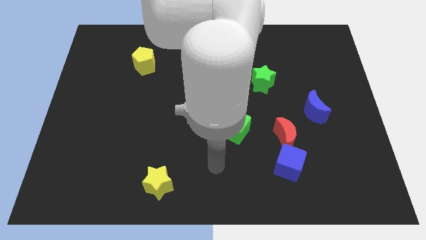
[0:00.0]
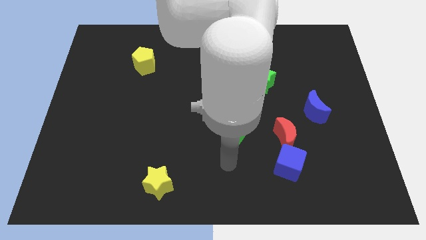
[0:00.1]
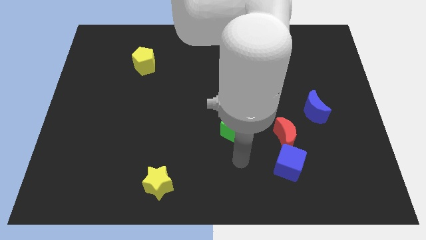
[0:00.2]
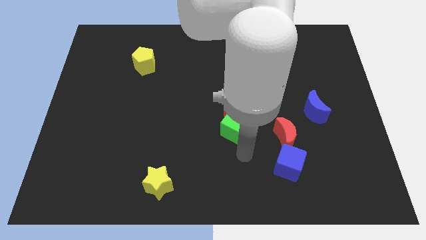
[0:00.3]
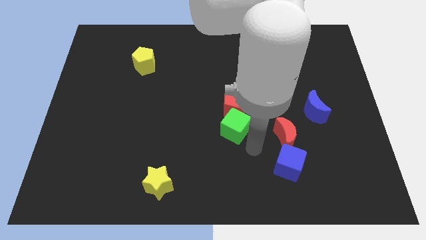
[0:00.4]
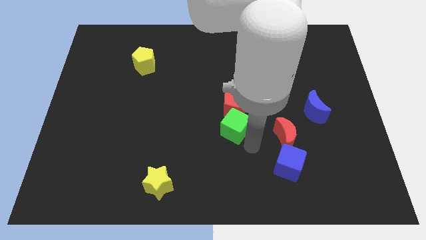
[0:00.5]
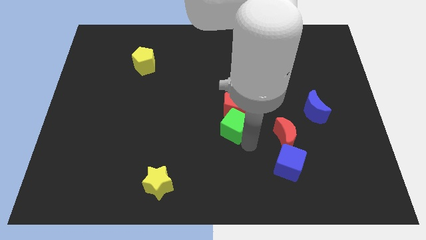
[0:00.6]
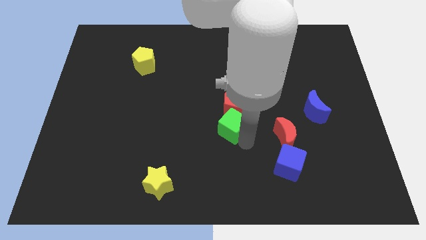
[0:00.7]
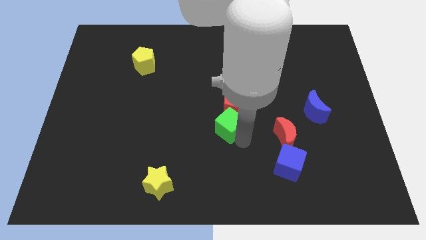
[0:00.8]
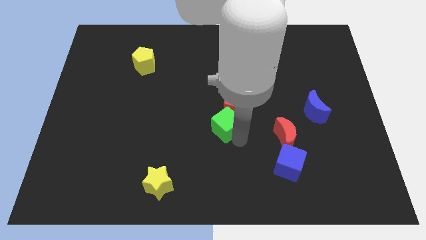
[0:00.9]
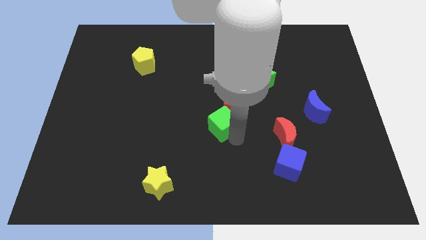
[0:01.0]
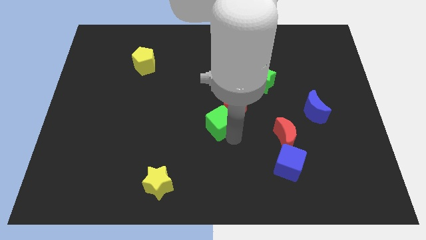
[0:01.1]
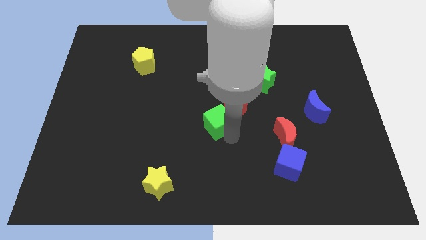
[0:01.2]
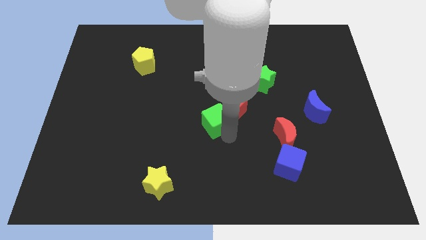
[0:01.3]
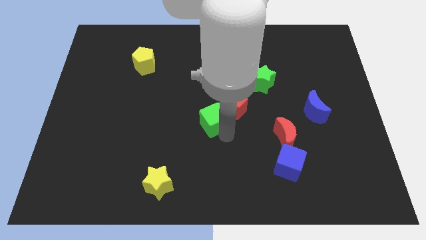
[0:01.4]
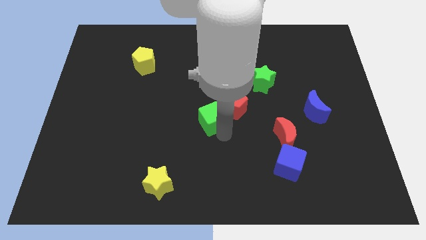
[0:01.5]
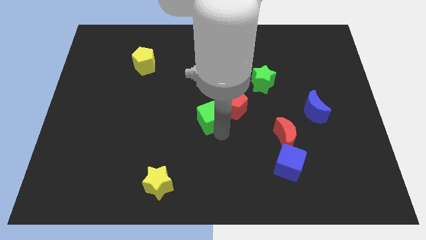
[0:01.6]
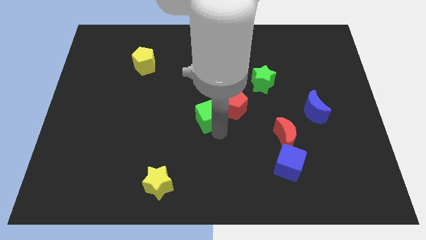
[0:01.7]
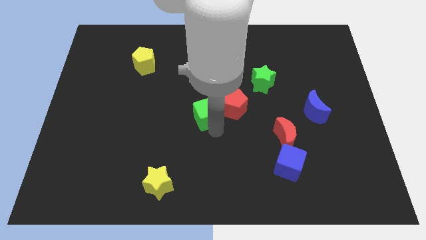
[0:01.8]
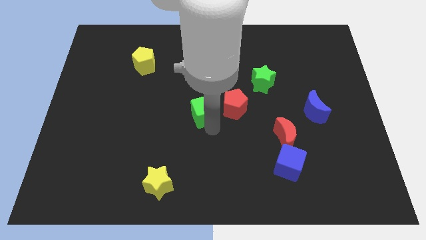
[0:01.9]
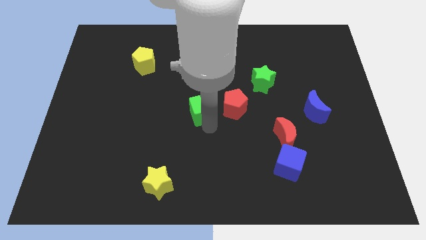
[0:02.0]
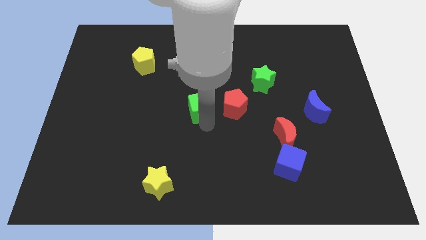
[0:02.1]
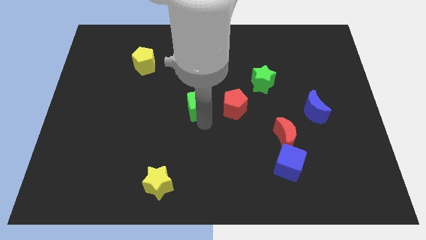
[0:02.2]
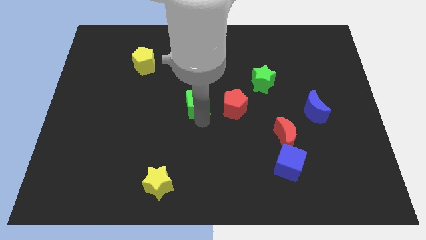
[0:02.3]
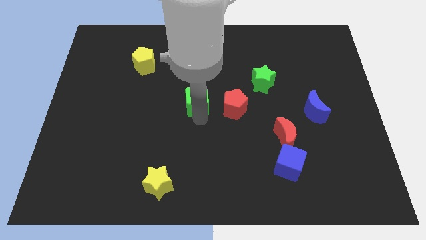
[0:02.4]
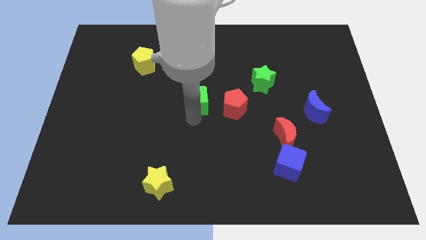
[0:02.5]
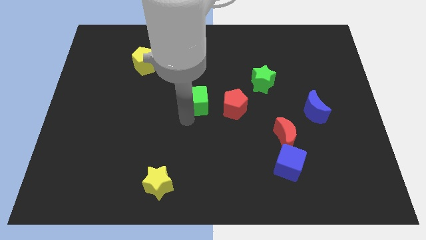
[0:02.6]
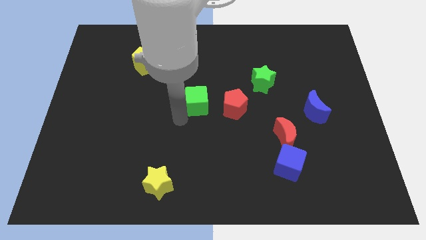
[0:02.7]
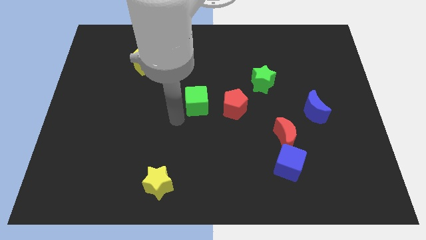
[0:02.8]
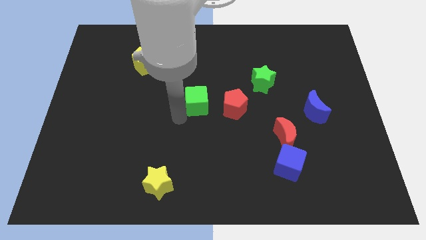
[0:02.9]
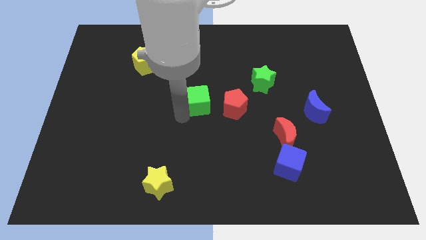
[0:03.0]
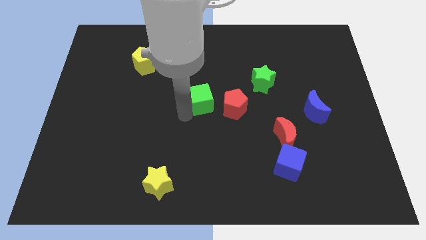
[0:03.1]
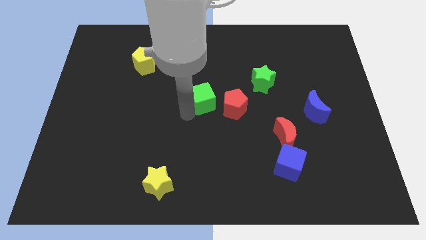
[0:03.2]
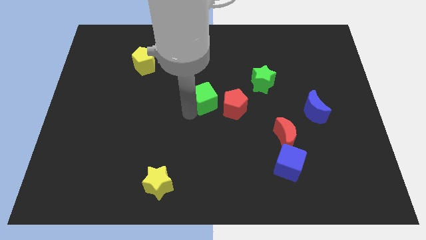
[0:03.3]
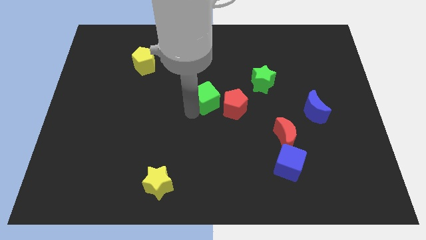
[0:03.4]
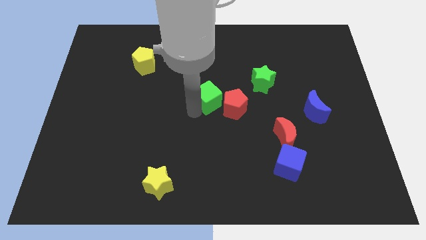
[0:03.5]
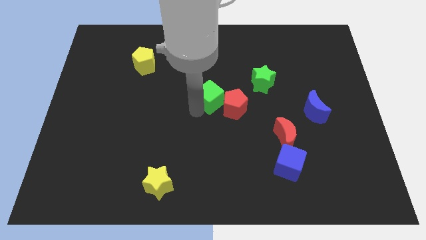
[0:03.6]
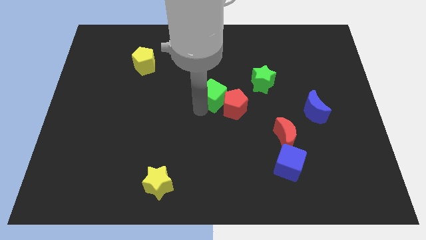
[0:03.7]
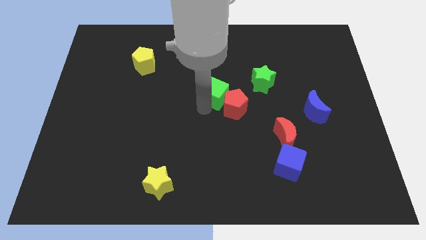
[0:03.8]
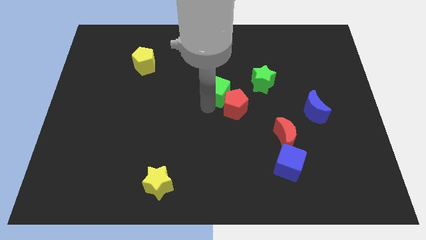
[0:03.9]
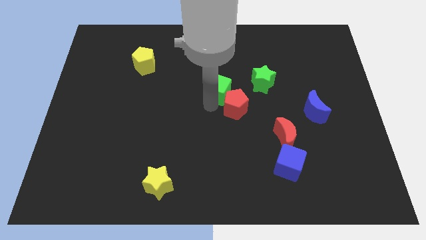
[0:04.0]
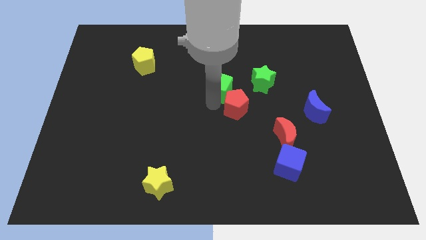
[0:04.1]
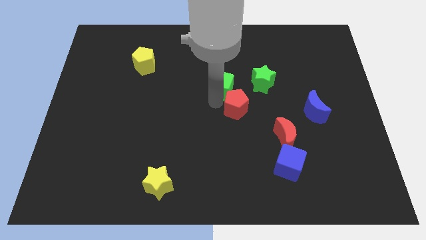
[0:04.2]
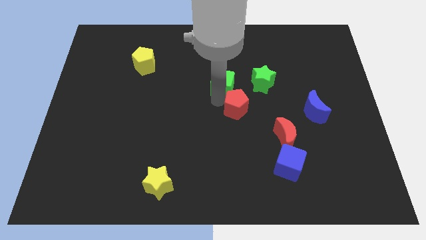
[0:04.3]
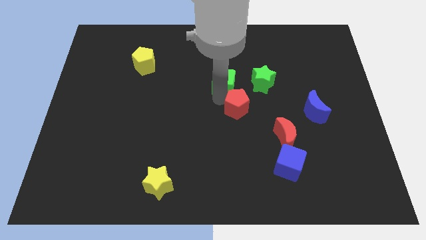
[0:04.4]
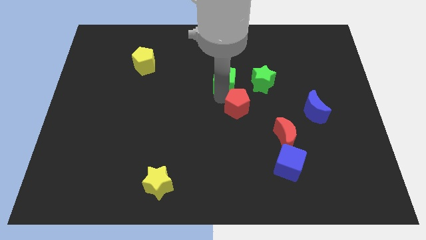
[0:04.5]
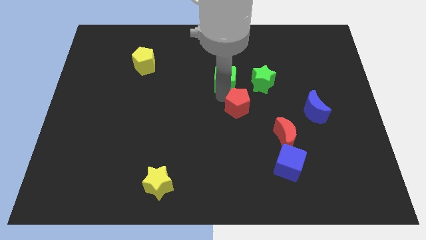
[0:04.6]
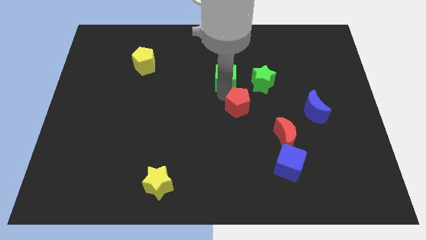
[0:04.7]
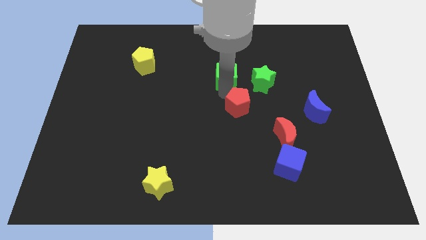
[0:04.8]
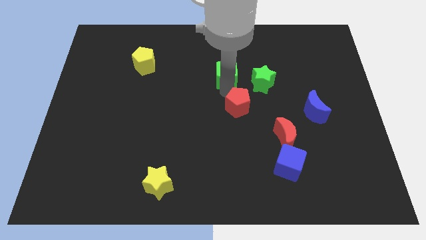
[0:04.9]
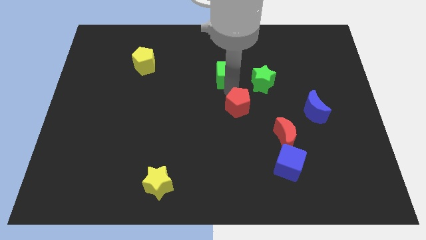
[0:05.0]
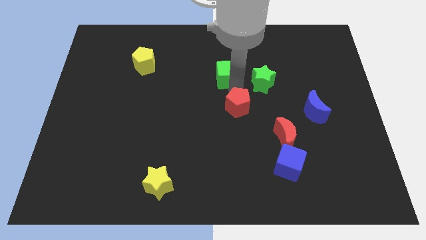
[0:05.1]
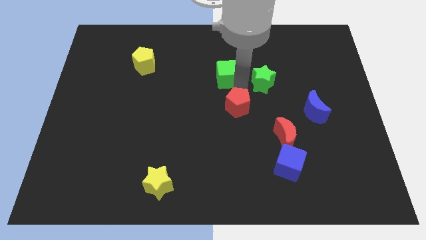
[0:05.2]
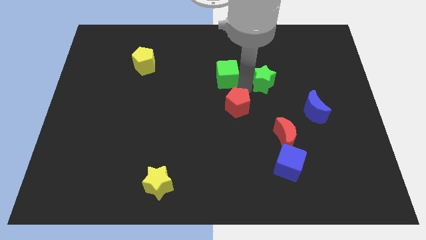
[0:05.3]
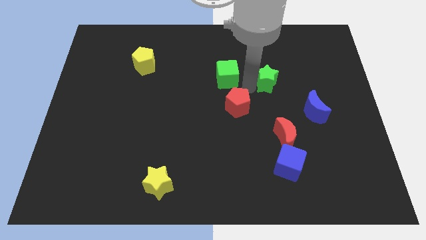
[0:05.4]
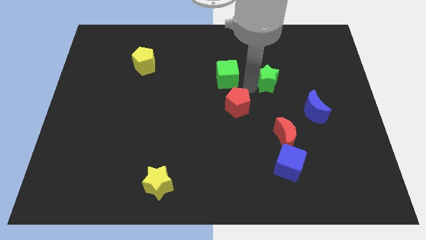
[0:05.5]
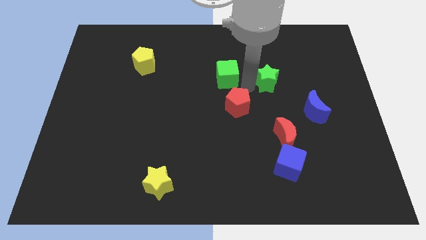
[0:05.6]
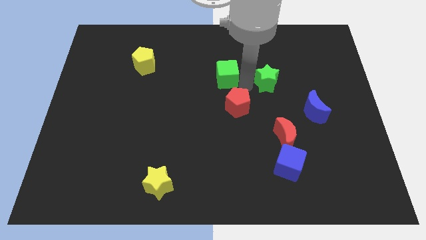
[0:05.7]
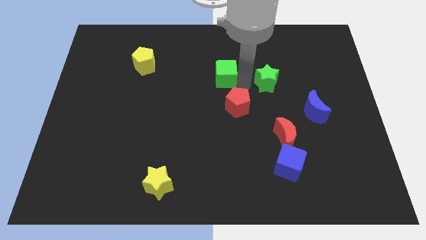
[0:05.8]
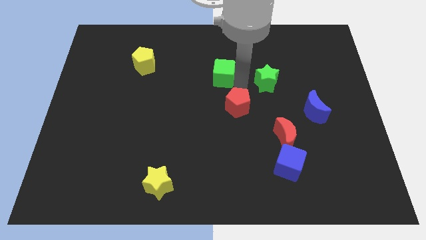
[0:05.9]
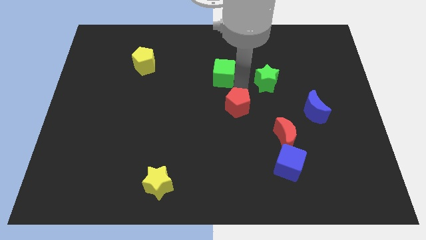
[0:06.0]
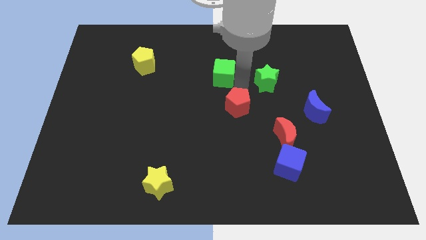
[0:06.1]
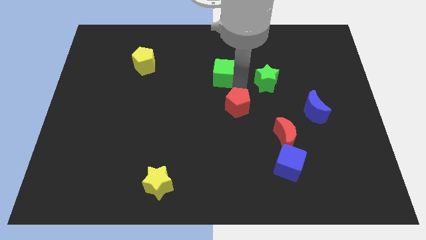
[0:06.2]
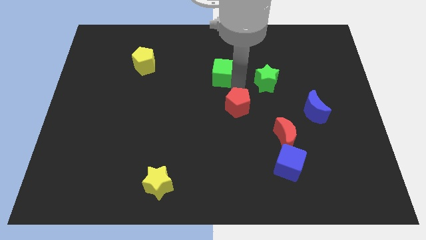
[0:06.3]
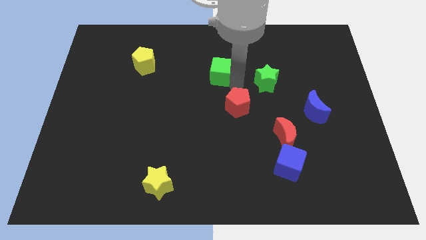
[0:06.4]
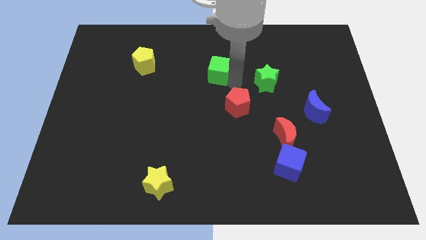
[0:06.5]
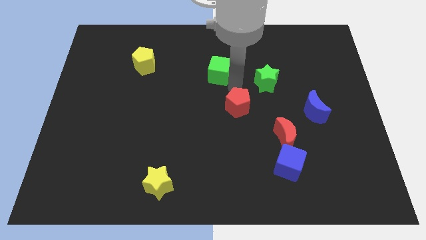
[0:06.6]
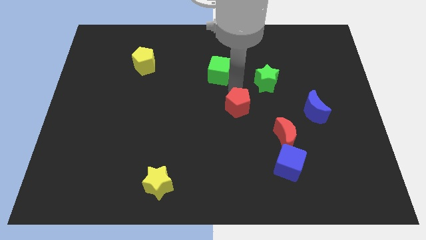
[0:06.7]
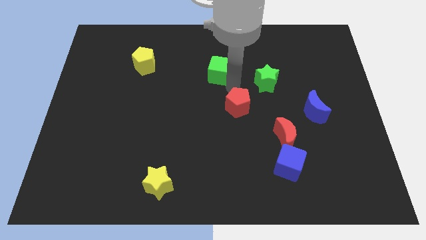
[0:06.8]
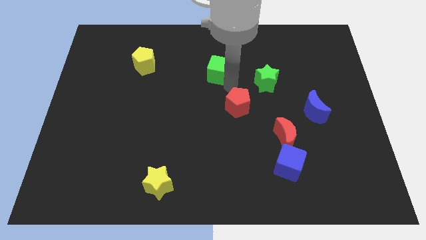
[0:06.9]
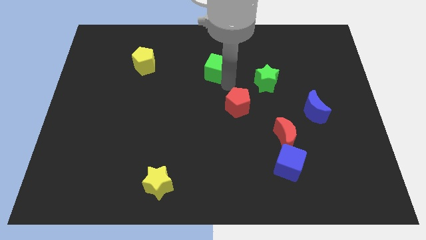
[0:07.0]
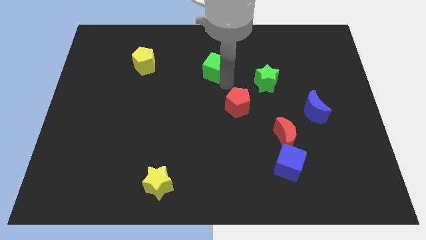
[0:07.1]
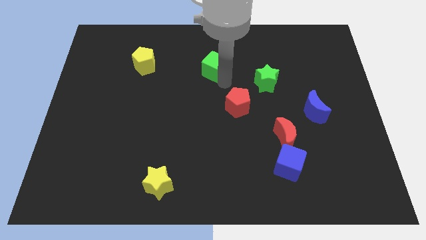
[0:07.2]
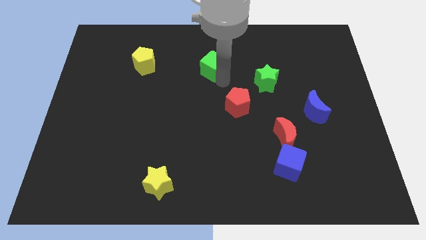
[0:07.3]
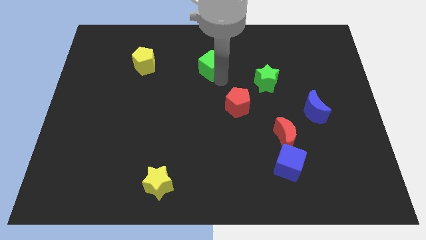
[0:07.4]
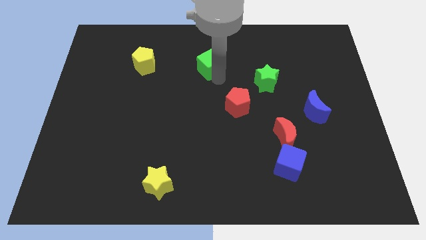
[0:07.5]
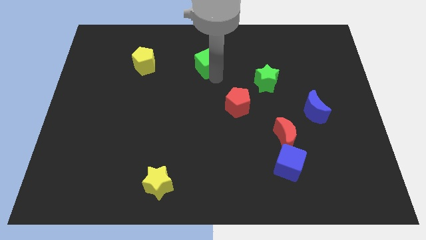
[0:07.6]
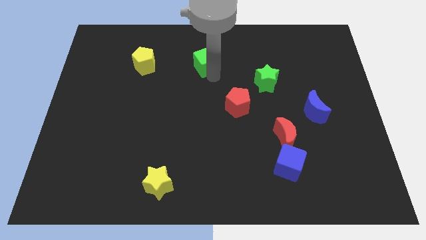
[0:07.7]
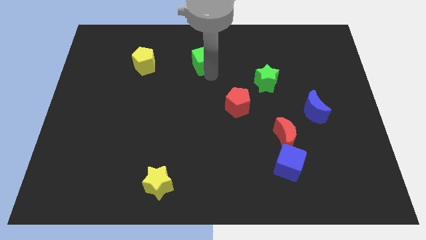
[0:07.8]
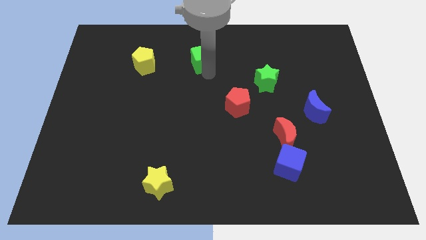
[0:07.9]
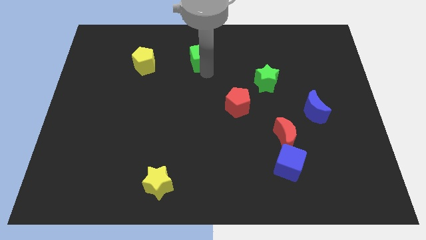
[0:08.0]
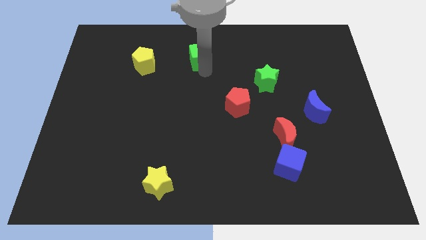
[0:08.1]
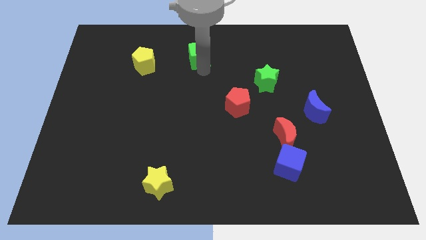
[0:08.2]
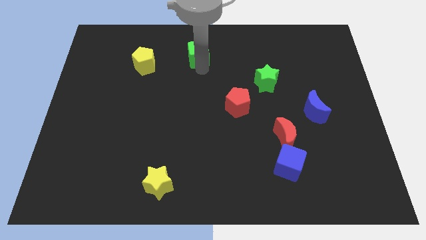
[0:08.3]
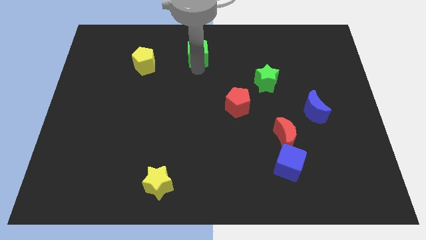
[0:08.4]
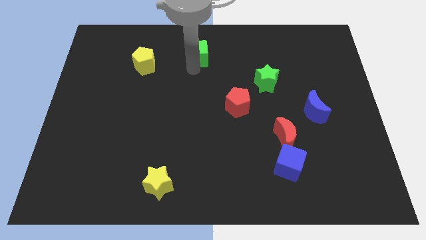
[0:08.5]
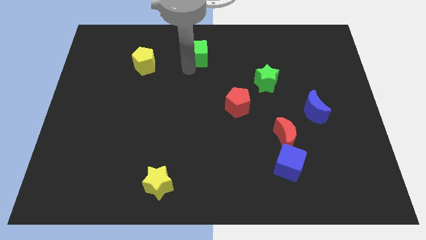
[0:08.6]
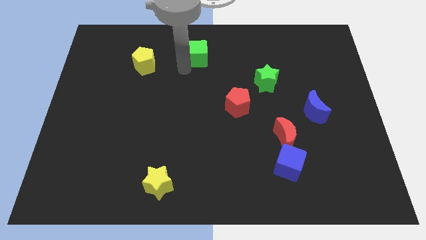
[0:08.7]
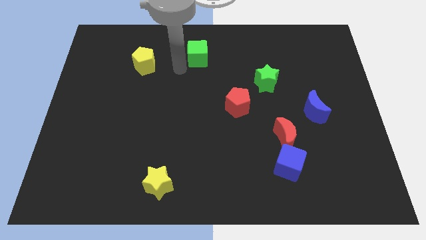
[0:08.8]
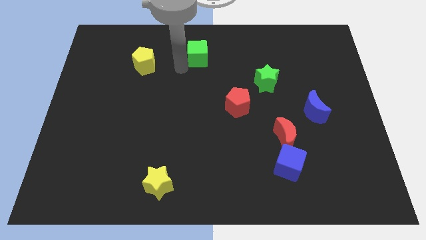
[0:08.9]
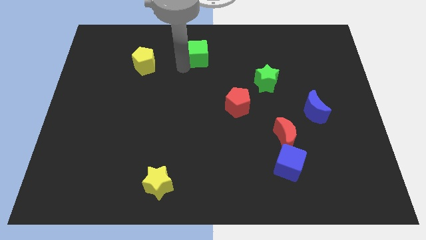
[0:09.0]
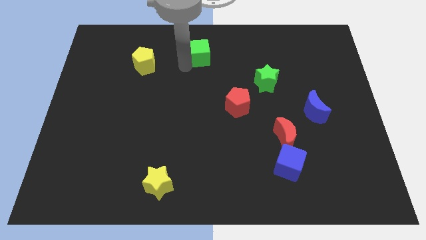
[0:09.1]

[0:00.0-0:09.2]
push the green cube to the towards your base
